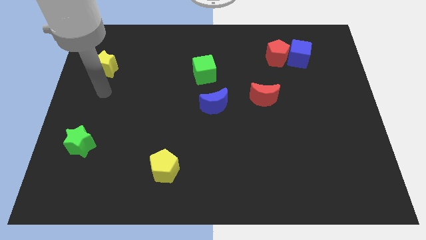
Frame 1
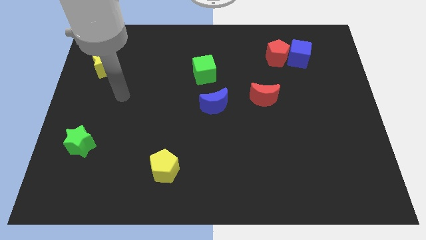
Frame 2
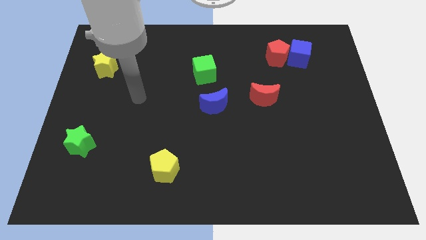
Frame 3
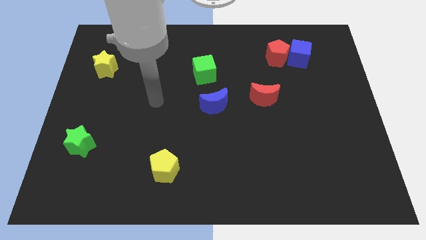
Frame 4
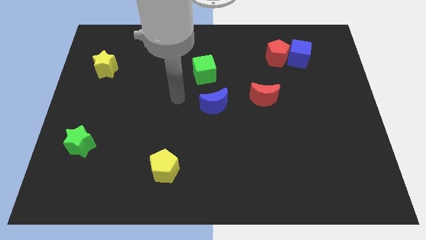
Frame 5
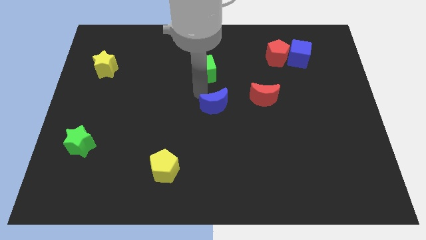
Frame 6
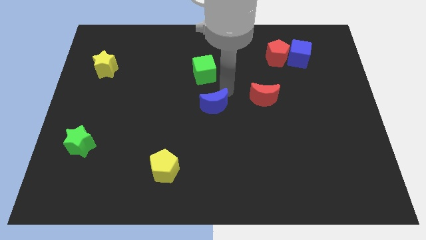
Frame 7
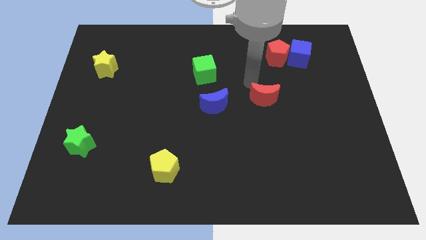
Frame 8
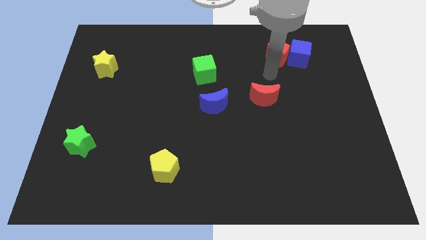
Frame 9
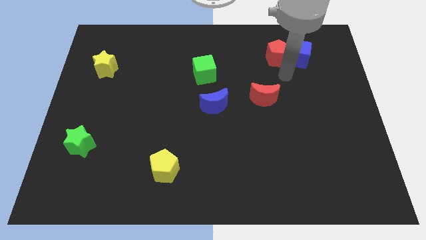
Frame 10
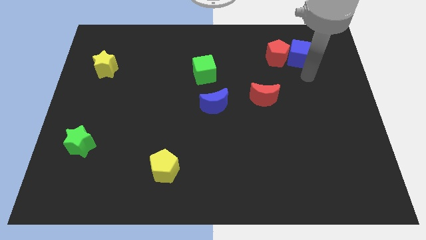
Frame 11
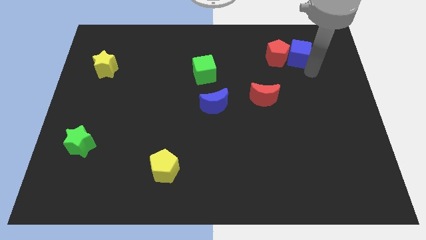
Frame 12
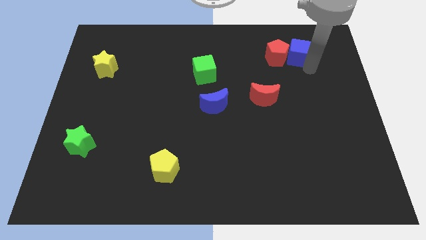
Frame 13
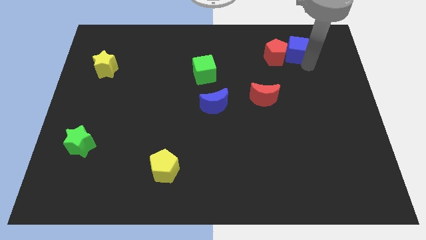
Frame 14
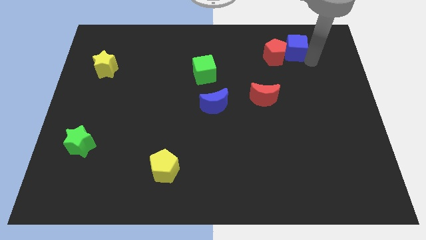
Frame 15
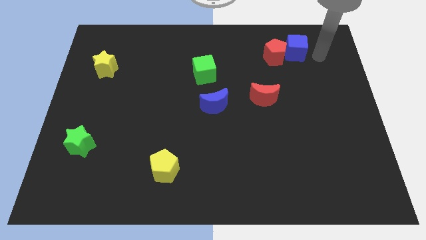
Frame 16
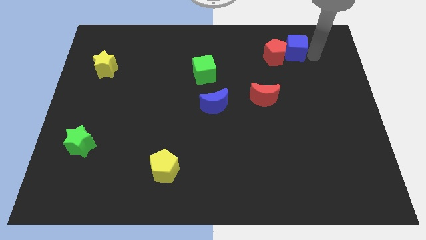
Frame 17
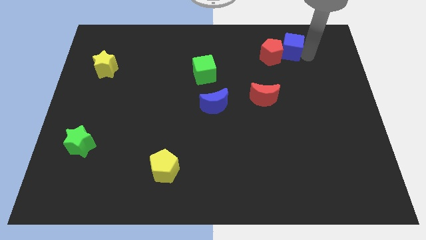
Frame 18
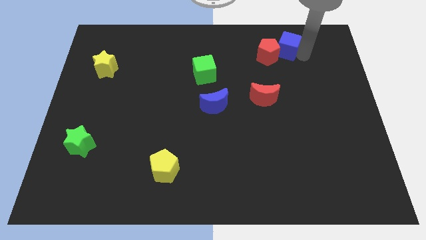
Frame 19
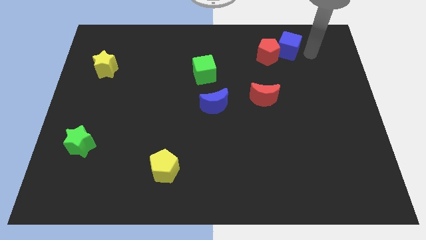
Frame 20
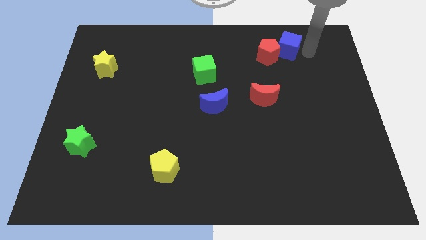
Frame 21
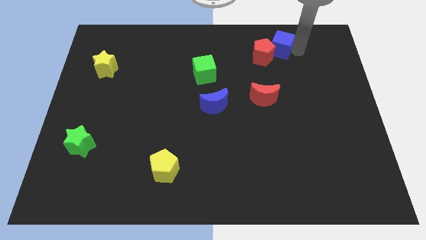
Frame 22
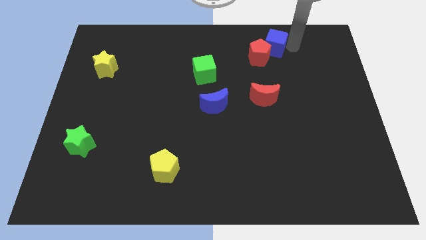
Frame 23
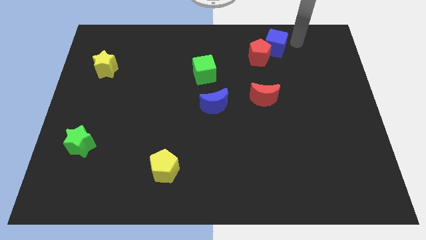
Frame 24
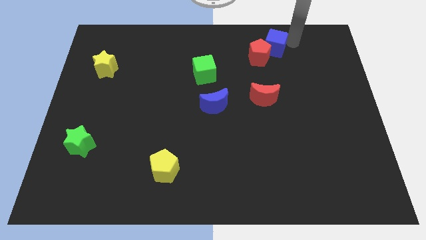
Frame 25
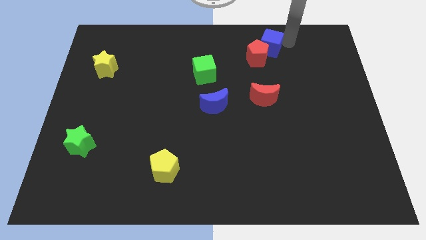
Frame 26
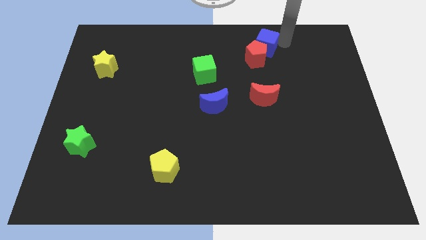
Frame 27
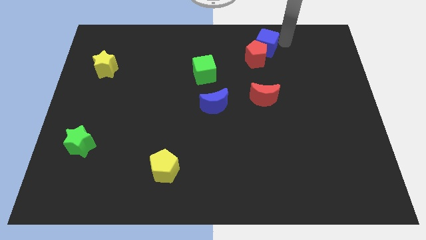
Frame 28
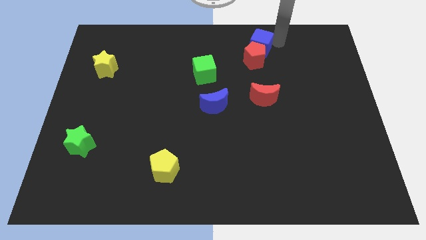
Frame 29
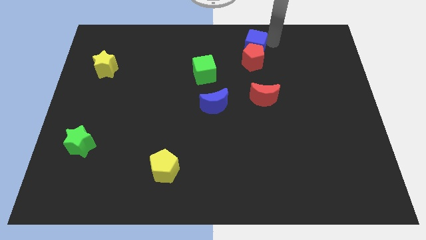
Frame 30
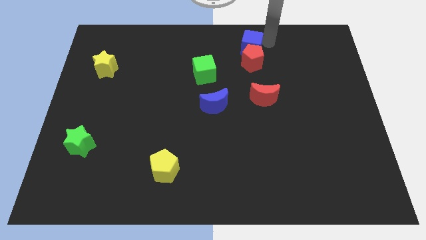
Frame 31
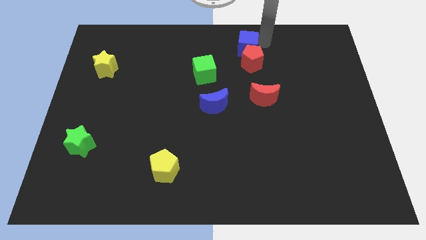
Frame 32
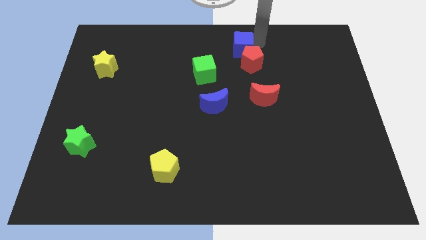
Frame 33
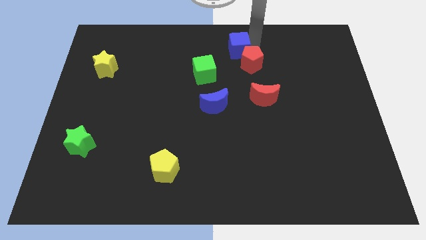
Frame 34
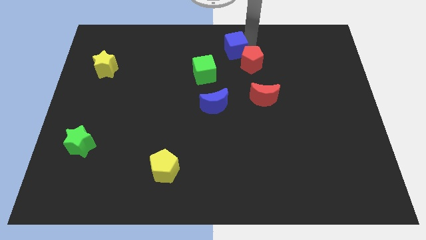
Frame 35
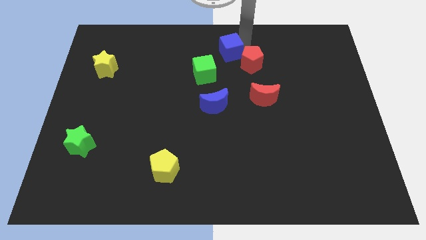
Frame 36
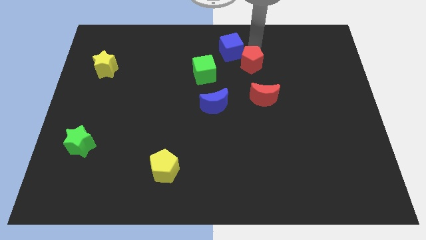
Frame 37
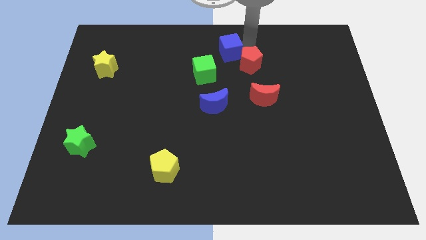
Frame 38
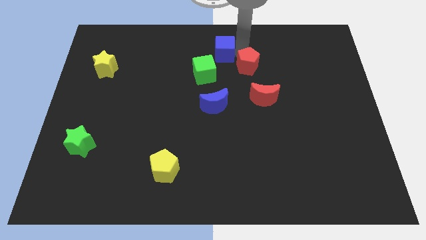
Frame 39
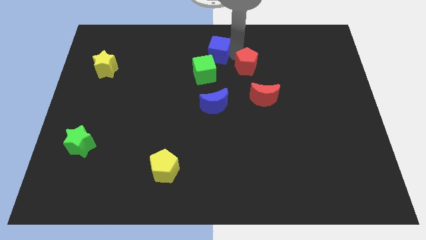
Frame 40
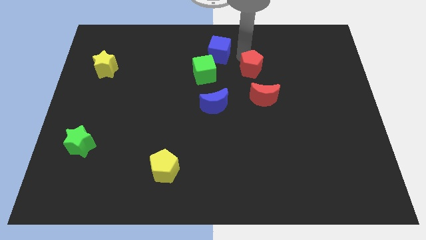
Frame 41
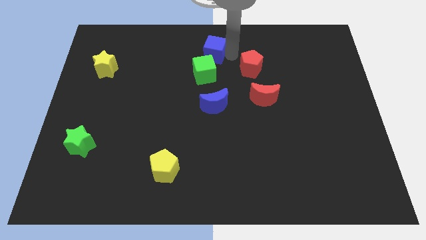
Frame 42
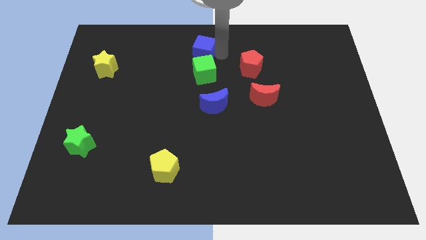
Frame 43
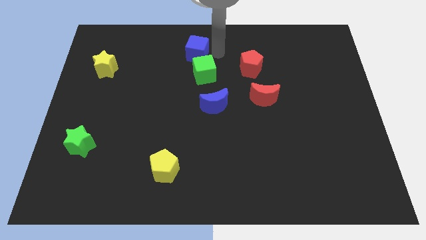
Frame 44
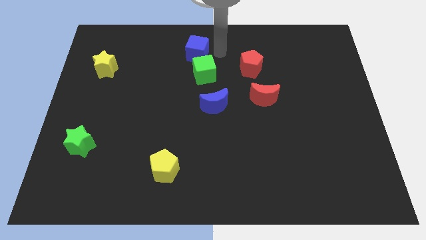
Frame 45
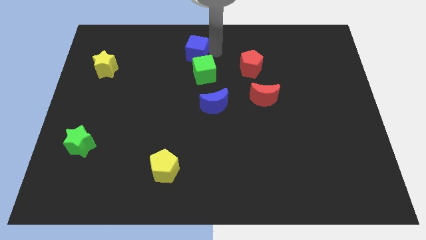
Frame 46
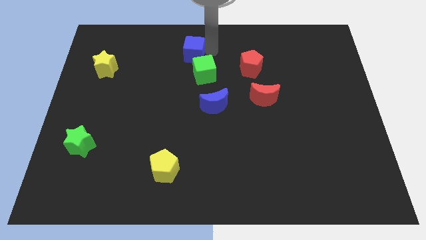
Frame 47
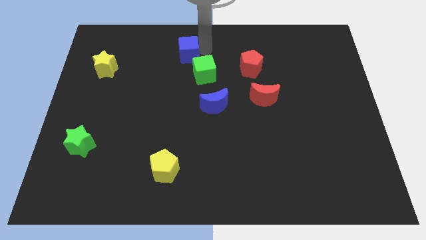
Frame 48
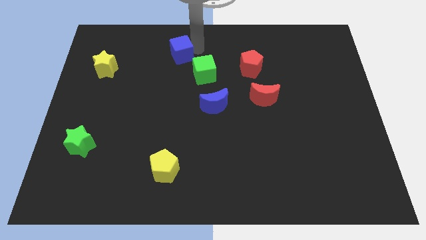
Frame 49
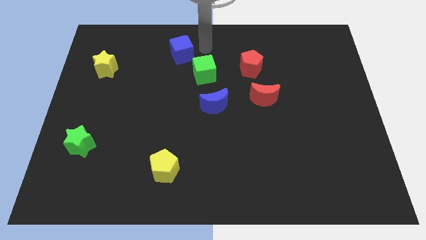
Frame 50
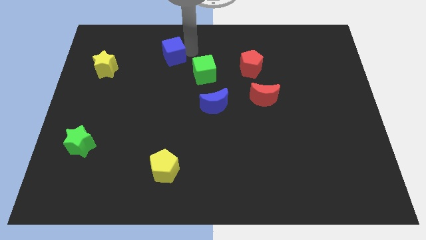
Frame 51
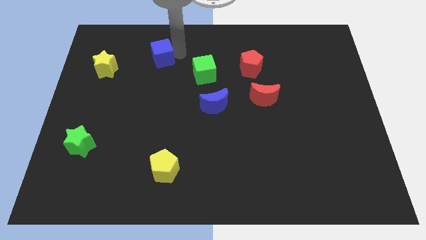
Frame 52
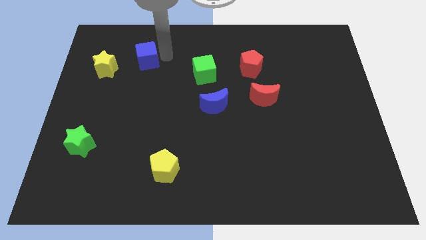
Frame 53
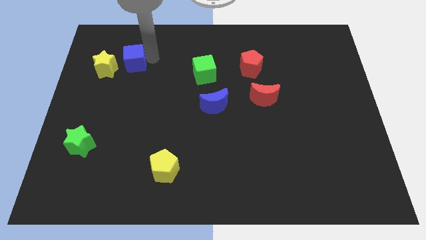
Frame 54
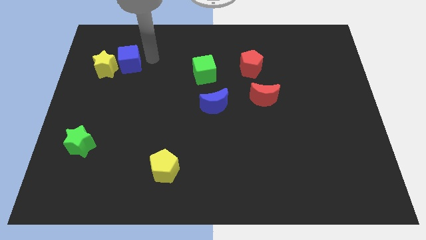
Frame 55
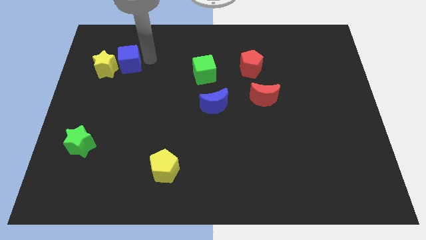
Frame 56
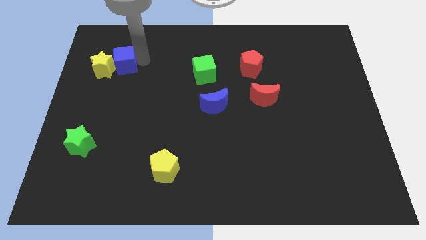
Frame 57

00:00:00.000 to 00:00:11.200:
put the blue cube towards the yellow star

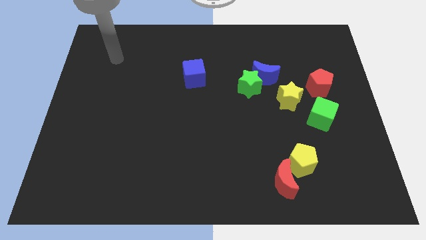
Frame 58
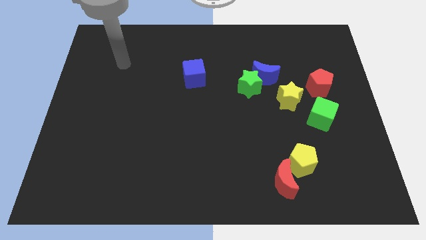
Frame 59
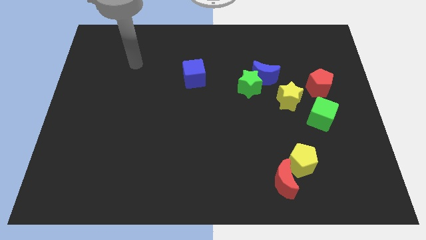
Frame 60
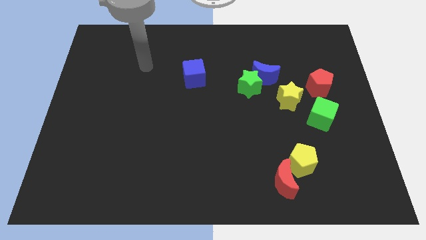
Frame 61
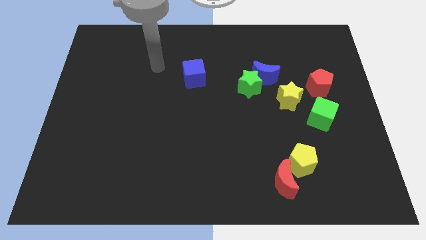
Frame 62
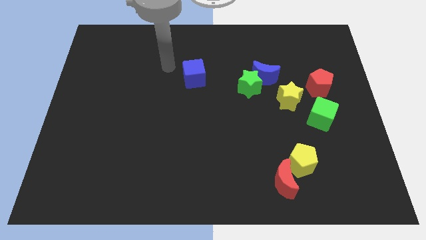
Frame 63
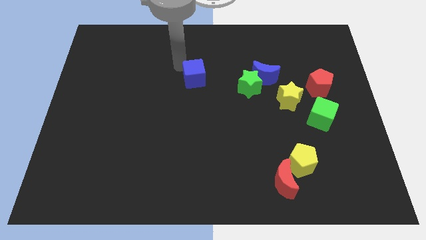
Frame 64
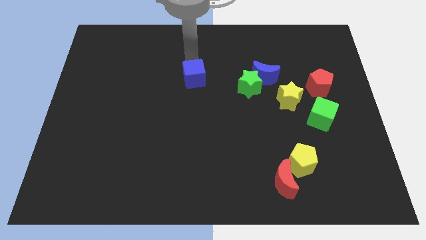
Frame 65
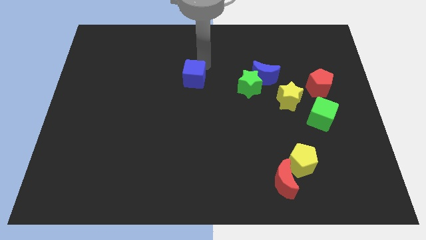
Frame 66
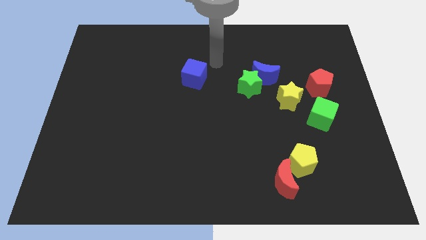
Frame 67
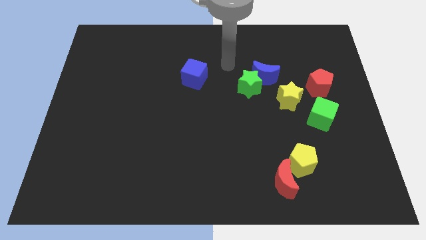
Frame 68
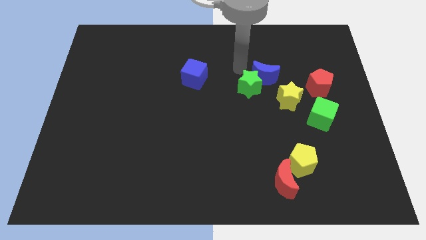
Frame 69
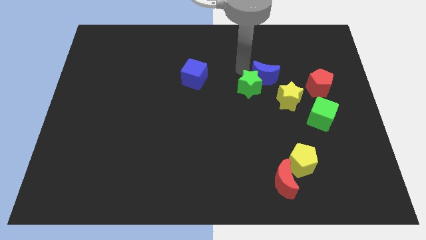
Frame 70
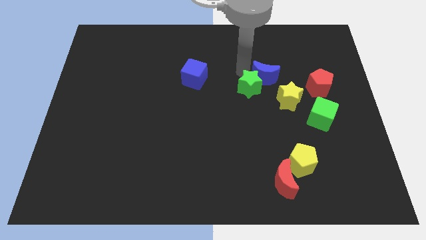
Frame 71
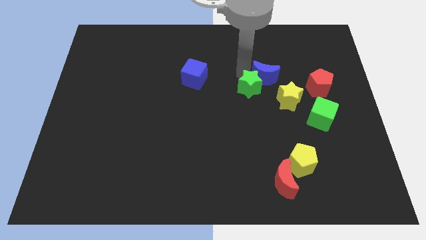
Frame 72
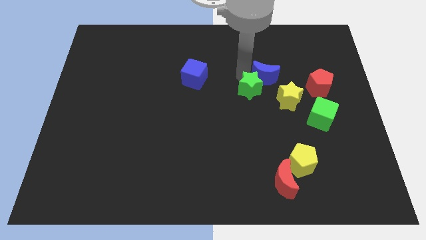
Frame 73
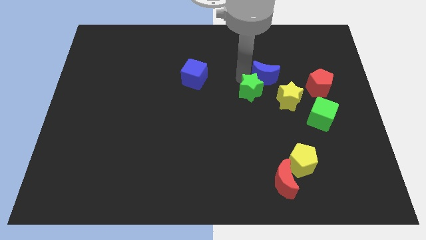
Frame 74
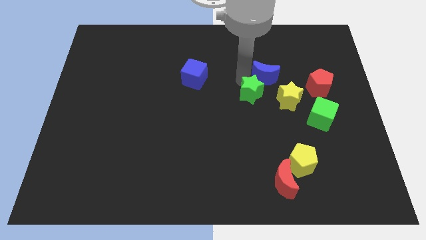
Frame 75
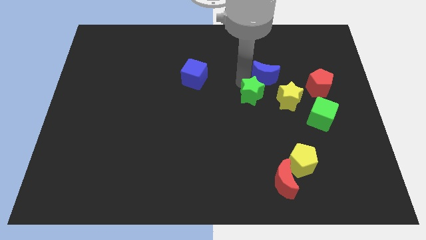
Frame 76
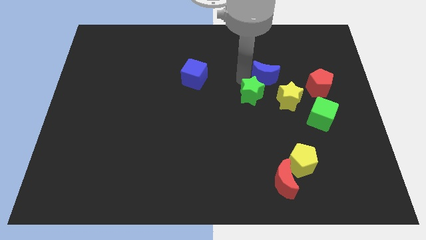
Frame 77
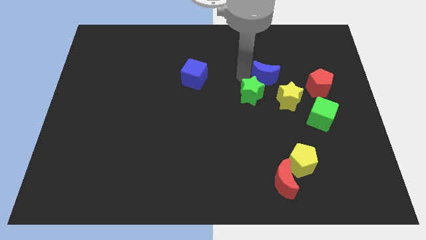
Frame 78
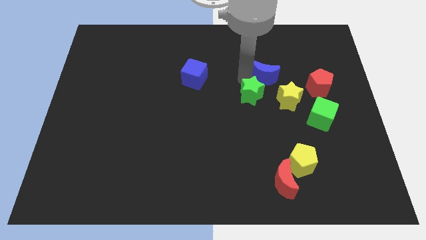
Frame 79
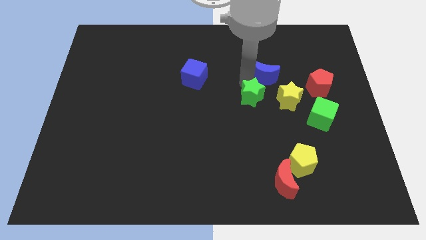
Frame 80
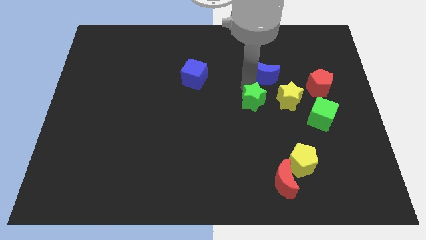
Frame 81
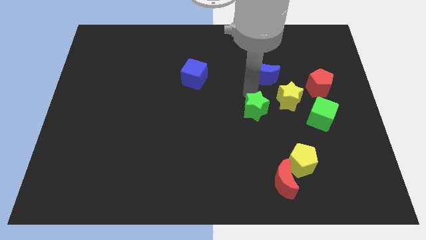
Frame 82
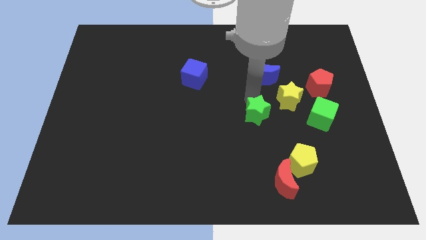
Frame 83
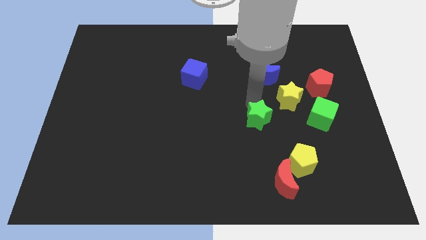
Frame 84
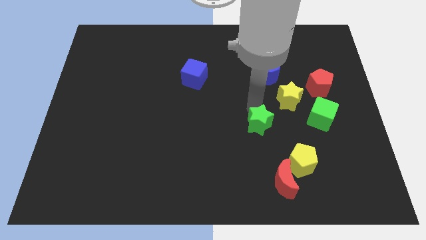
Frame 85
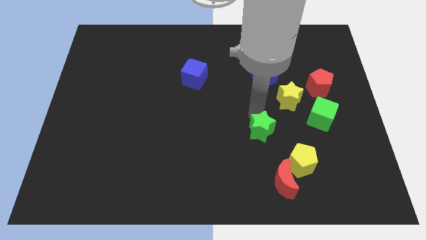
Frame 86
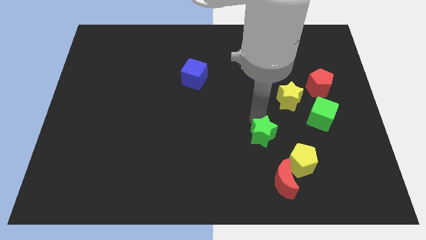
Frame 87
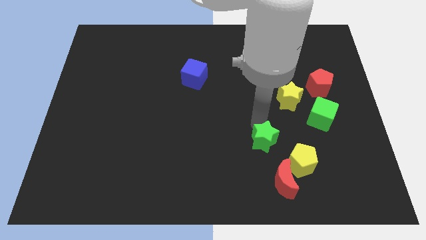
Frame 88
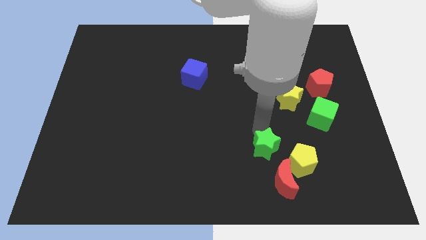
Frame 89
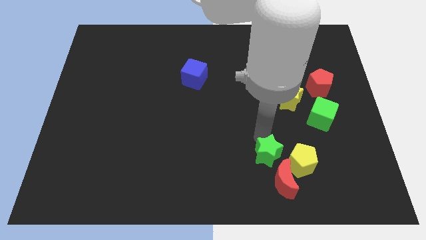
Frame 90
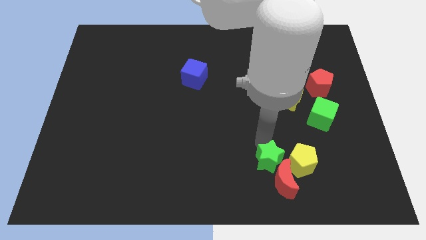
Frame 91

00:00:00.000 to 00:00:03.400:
put the green star next to the red moon
